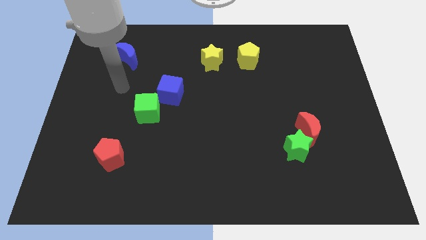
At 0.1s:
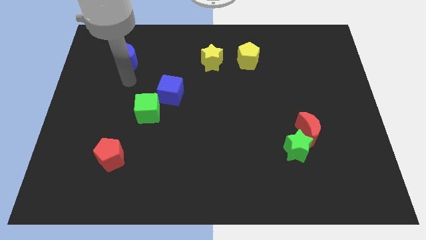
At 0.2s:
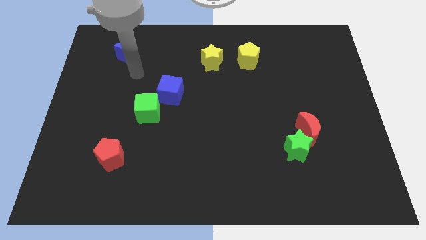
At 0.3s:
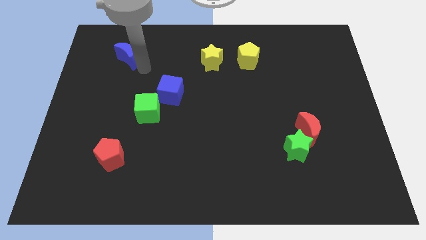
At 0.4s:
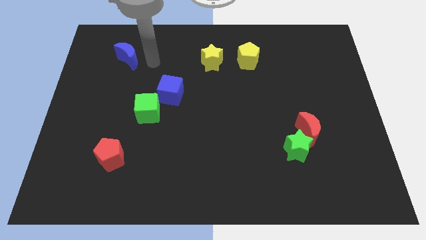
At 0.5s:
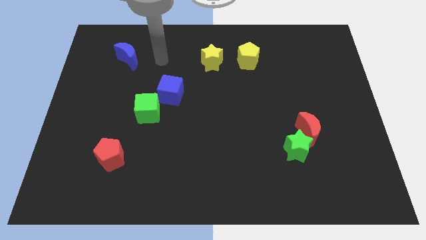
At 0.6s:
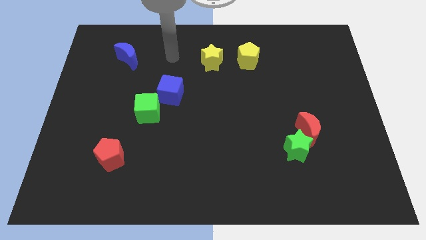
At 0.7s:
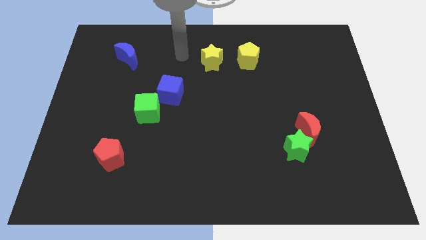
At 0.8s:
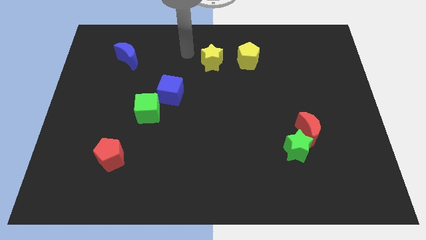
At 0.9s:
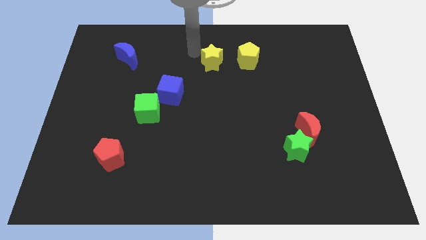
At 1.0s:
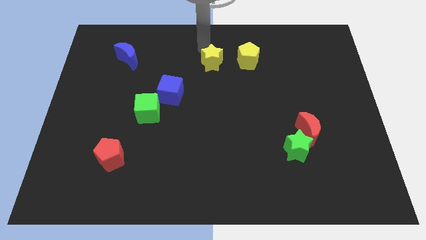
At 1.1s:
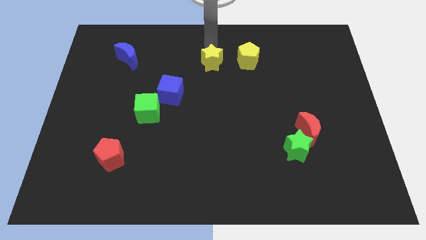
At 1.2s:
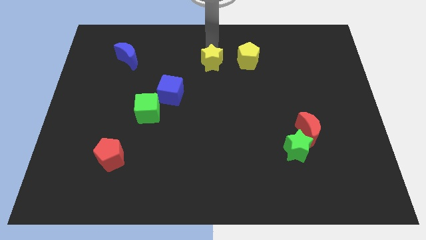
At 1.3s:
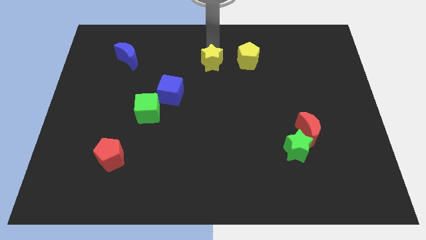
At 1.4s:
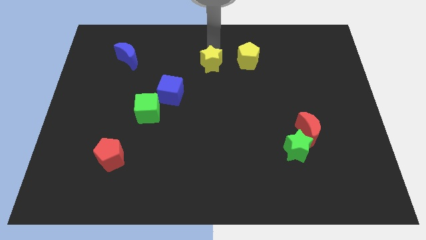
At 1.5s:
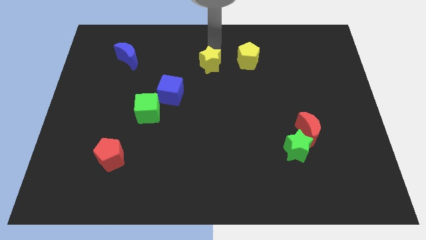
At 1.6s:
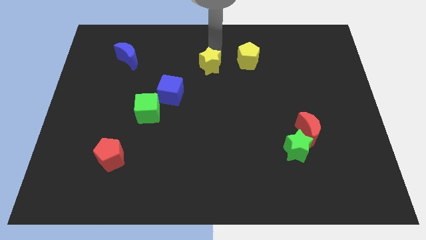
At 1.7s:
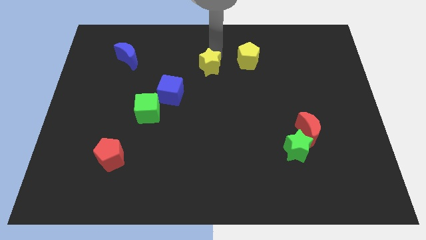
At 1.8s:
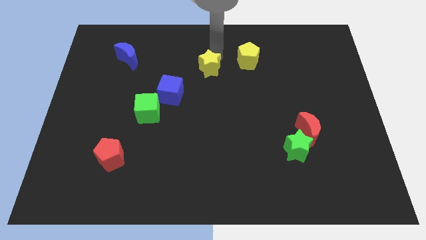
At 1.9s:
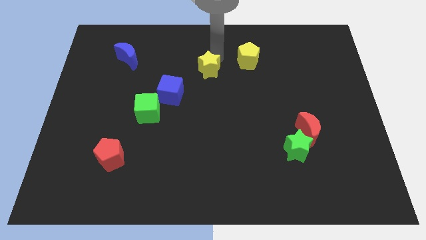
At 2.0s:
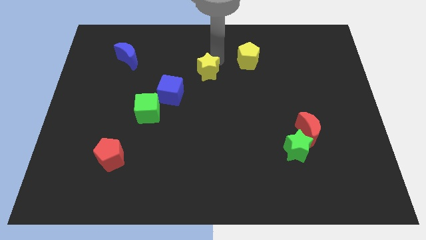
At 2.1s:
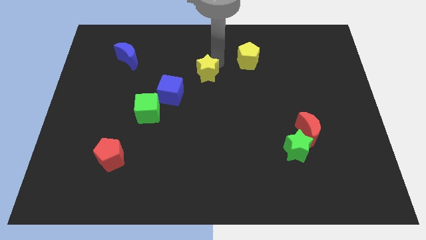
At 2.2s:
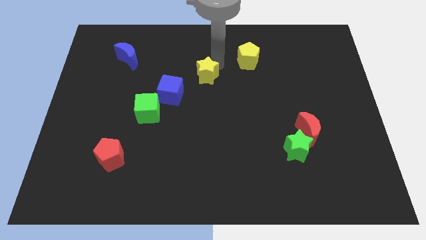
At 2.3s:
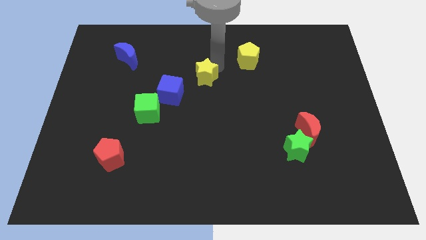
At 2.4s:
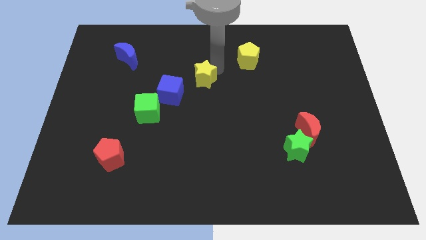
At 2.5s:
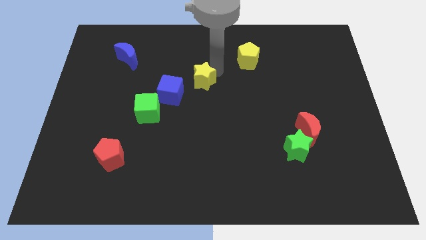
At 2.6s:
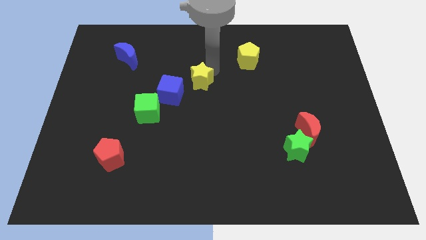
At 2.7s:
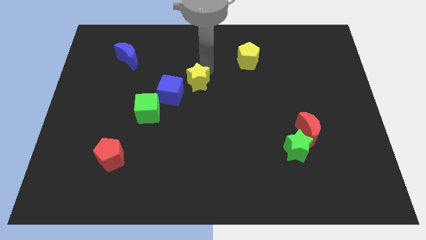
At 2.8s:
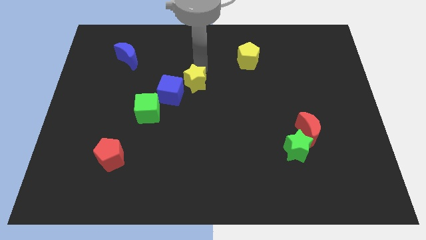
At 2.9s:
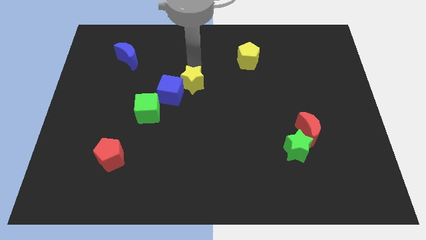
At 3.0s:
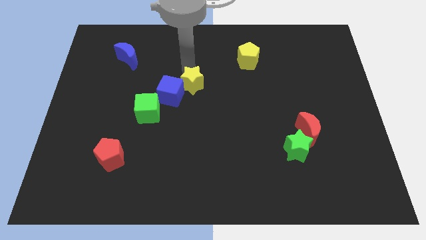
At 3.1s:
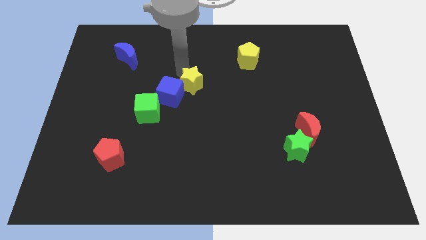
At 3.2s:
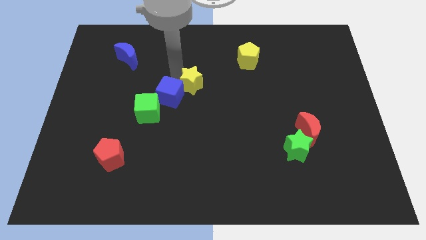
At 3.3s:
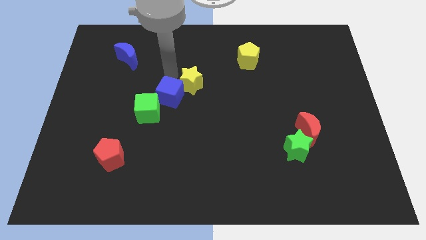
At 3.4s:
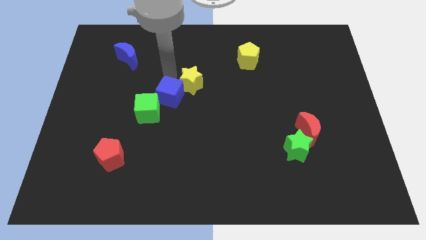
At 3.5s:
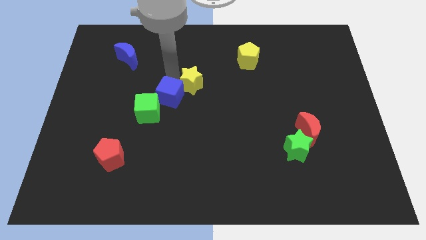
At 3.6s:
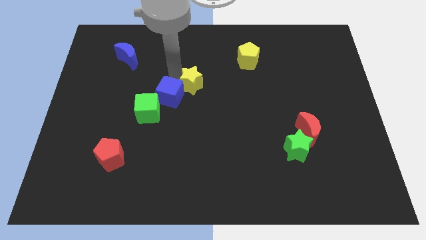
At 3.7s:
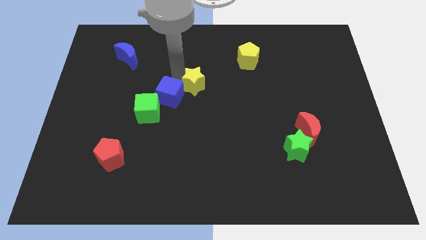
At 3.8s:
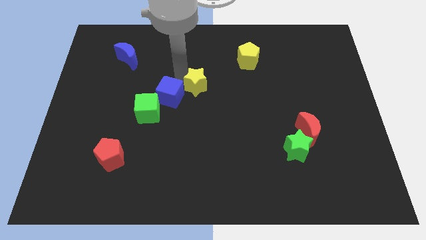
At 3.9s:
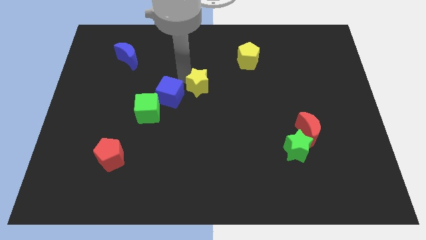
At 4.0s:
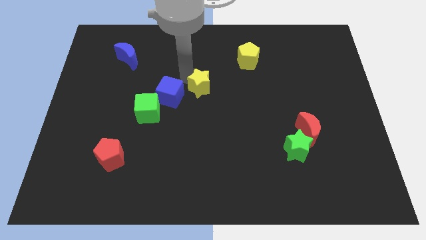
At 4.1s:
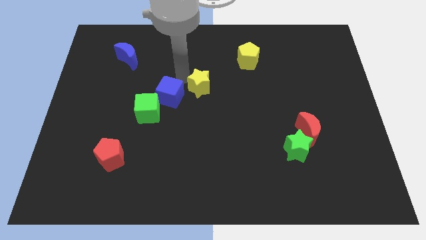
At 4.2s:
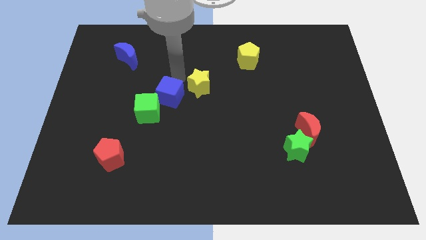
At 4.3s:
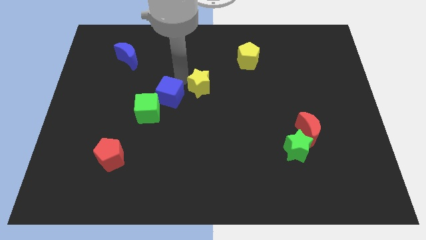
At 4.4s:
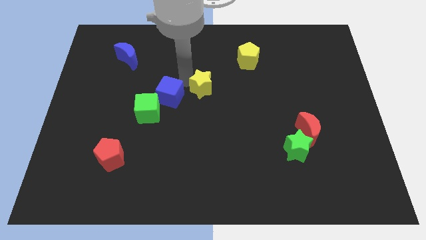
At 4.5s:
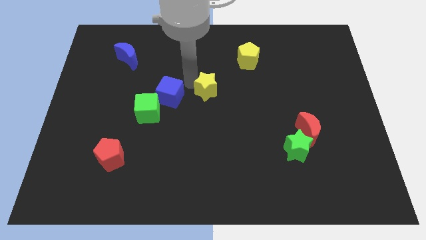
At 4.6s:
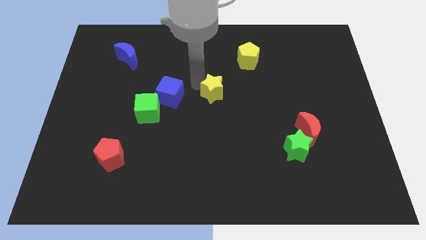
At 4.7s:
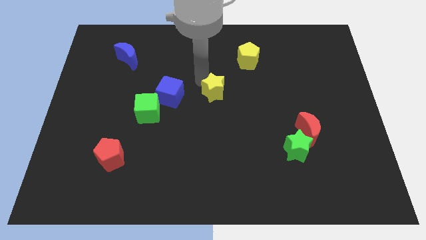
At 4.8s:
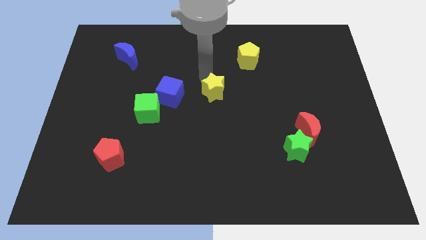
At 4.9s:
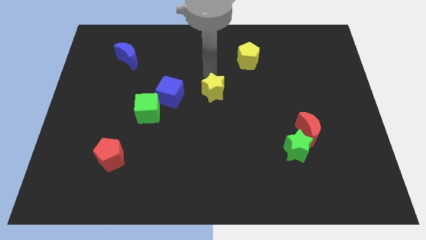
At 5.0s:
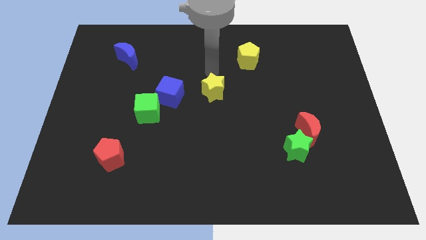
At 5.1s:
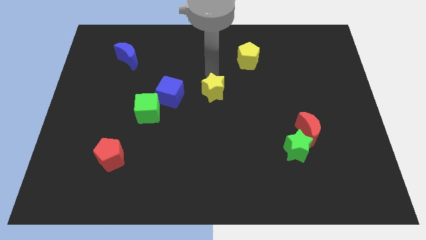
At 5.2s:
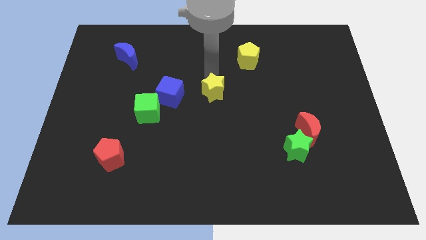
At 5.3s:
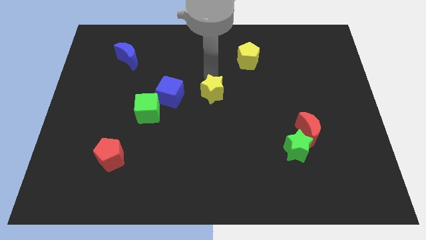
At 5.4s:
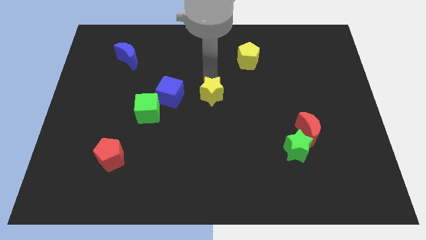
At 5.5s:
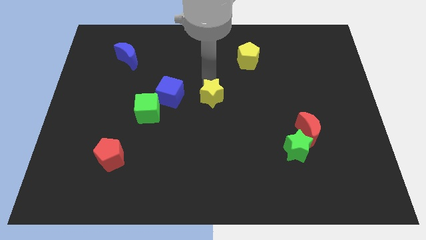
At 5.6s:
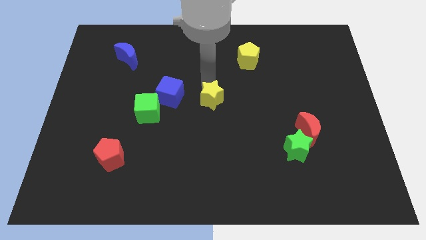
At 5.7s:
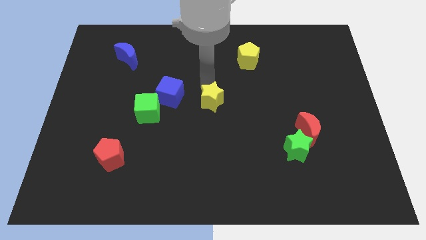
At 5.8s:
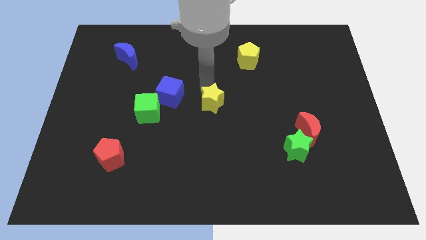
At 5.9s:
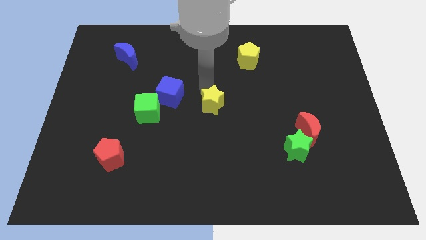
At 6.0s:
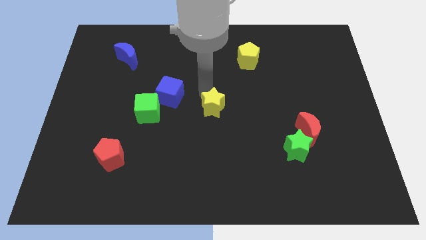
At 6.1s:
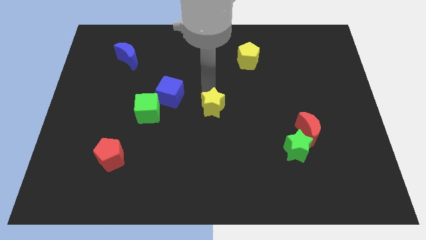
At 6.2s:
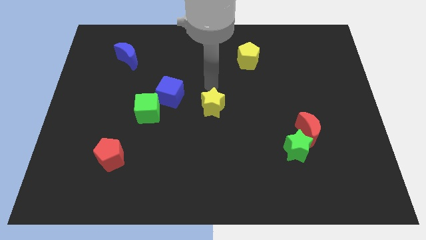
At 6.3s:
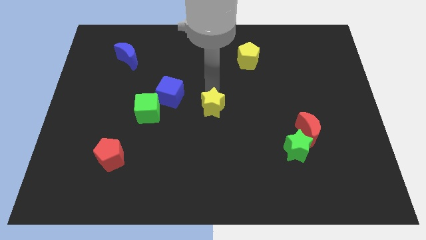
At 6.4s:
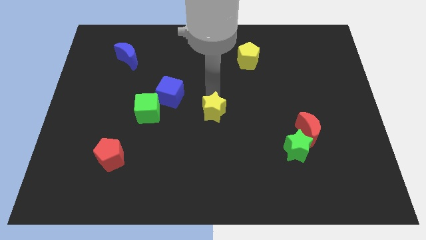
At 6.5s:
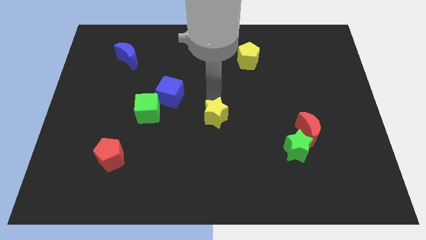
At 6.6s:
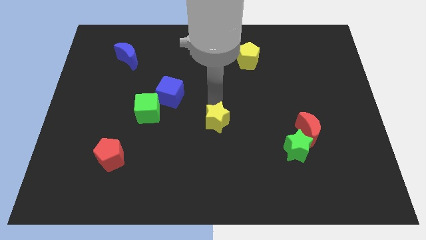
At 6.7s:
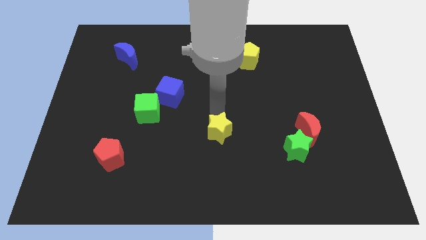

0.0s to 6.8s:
push the yellow star downwards

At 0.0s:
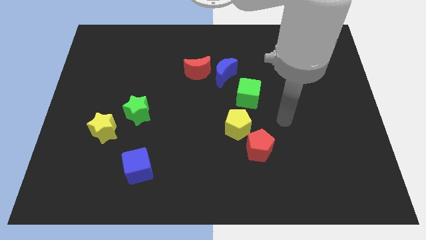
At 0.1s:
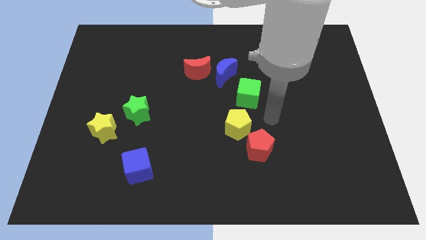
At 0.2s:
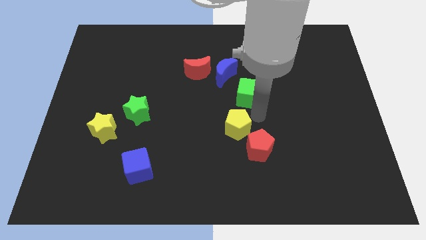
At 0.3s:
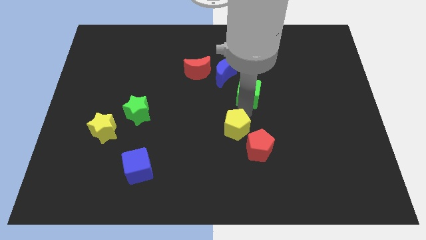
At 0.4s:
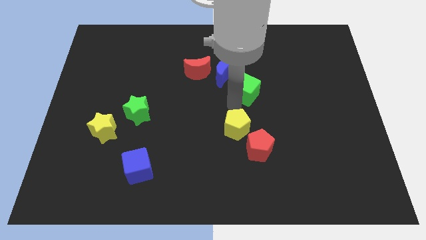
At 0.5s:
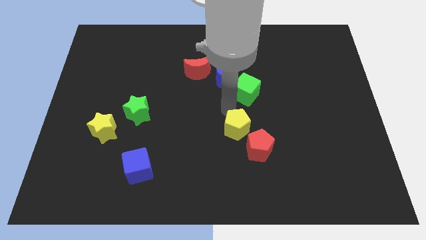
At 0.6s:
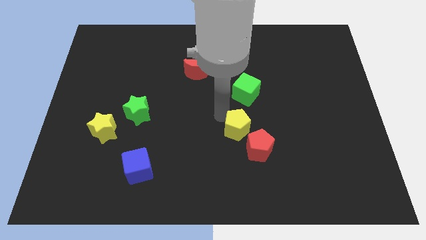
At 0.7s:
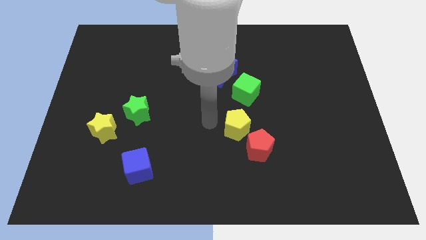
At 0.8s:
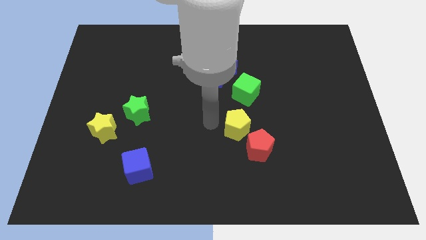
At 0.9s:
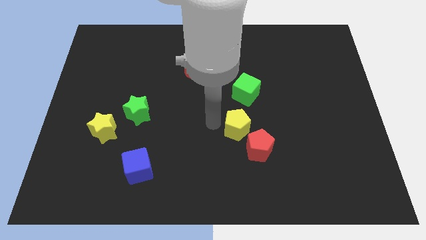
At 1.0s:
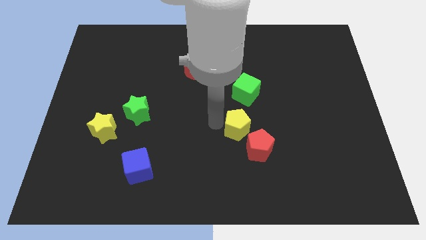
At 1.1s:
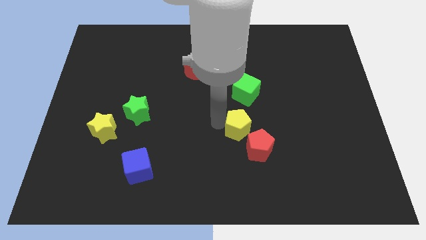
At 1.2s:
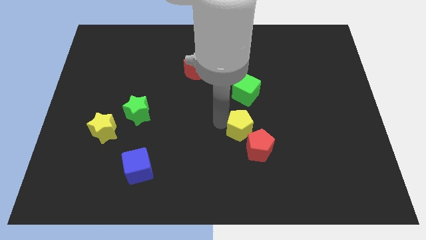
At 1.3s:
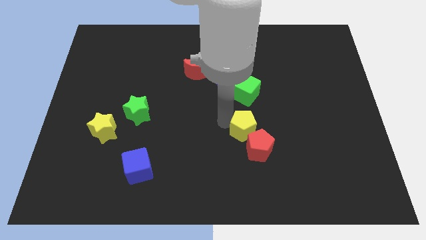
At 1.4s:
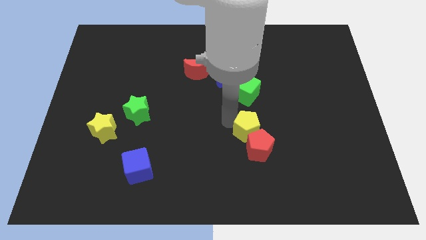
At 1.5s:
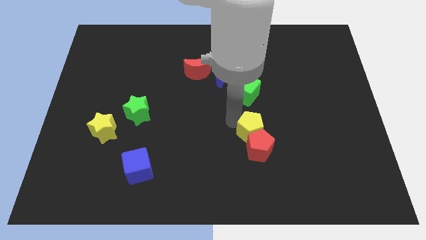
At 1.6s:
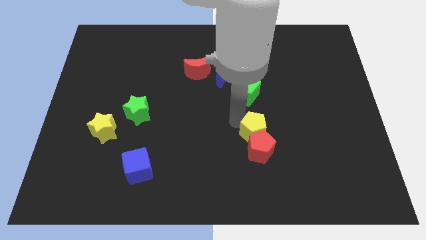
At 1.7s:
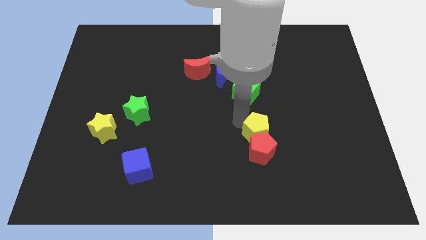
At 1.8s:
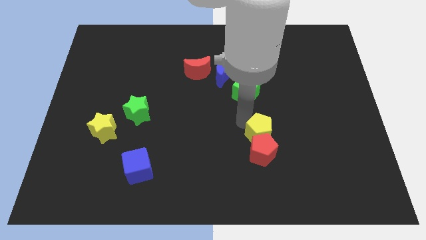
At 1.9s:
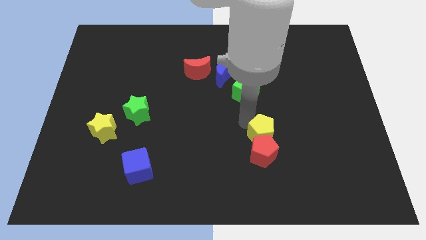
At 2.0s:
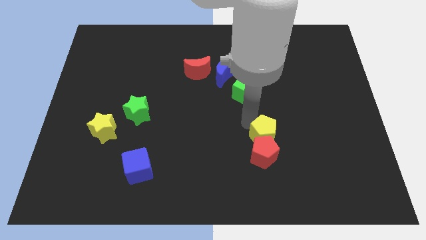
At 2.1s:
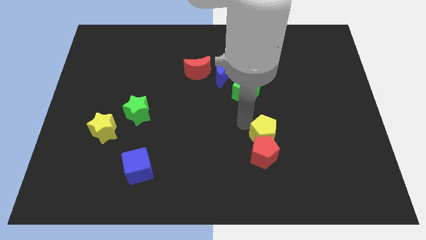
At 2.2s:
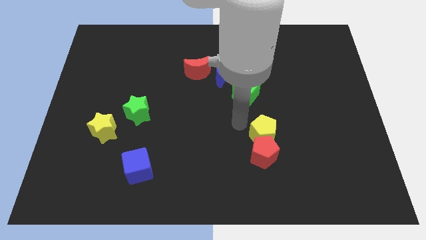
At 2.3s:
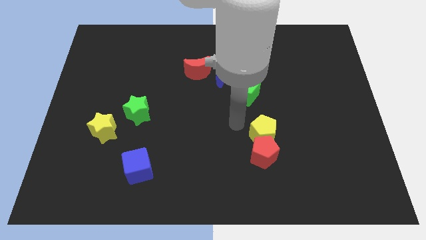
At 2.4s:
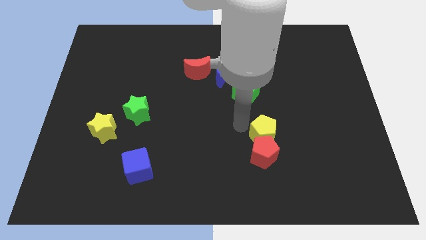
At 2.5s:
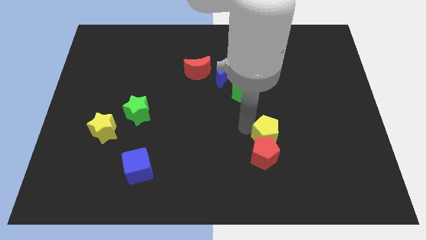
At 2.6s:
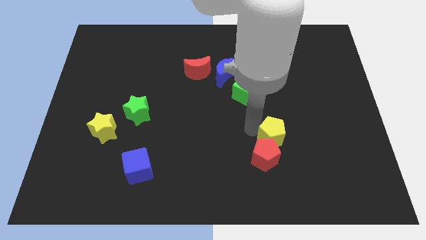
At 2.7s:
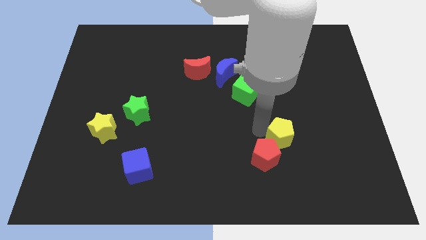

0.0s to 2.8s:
push the yellow pentagon down and then to the right a bit
